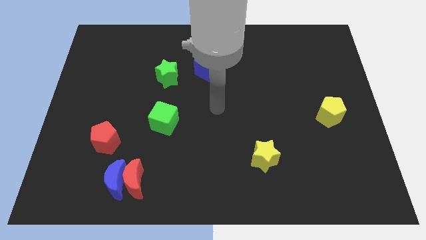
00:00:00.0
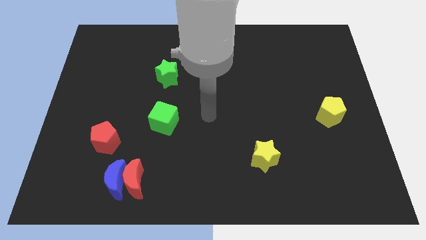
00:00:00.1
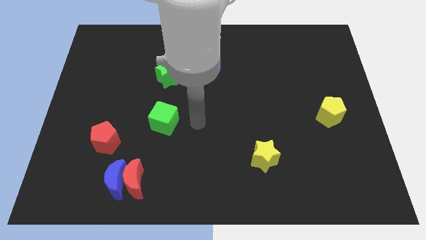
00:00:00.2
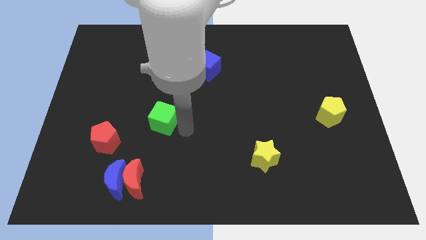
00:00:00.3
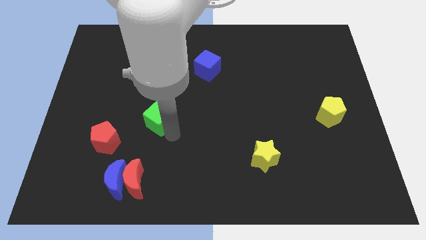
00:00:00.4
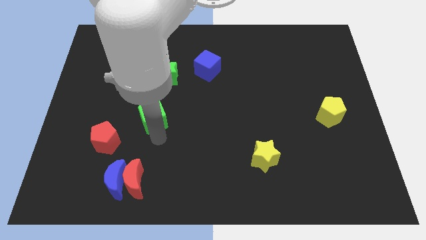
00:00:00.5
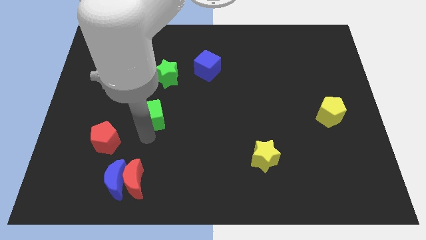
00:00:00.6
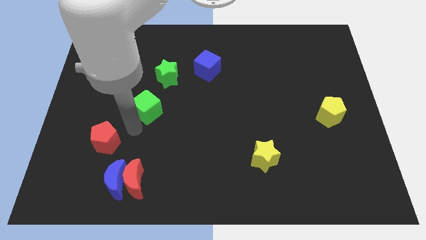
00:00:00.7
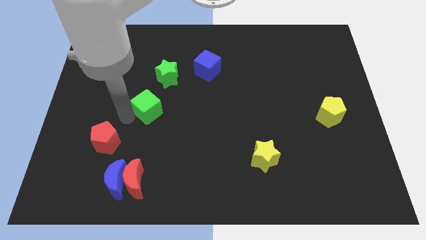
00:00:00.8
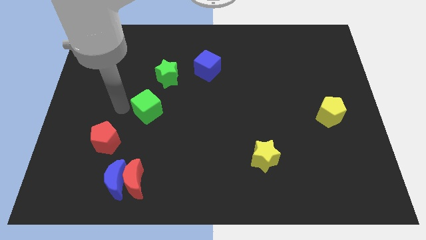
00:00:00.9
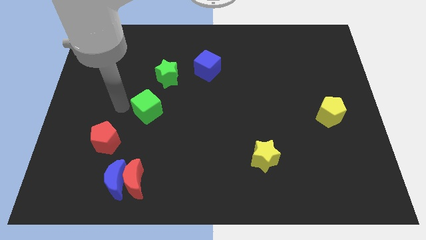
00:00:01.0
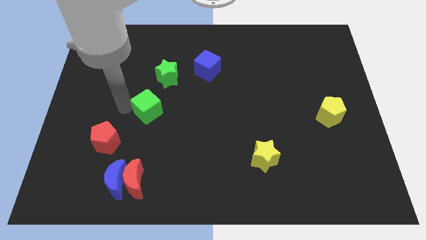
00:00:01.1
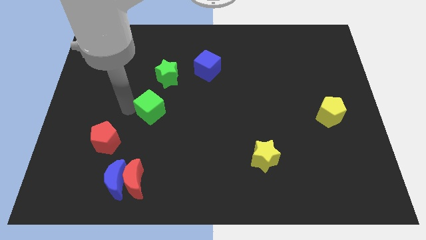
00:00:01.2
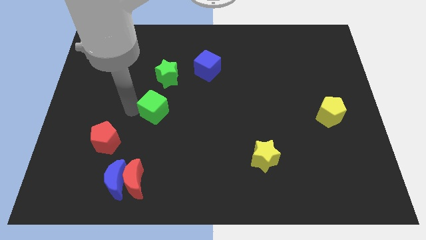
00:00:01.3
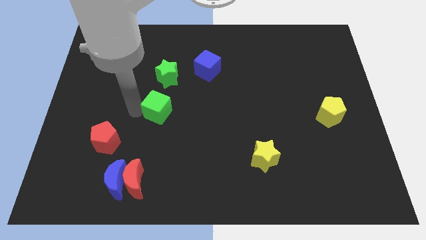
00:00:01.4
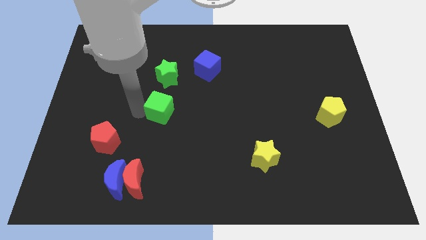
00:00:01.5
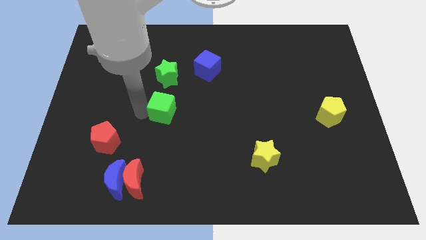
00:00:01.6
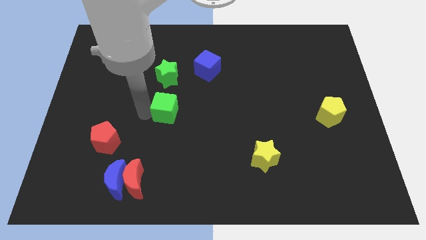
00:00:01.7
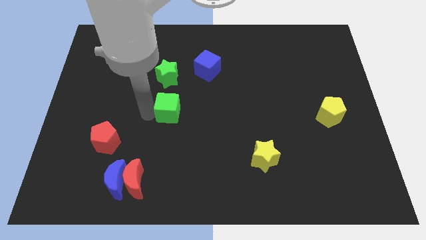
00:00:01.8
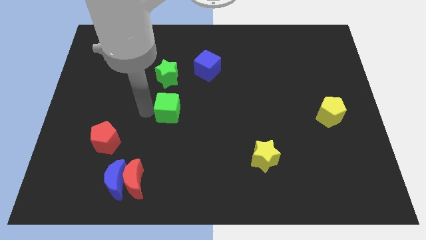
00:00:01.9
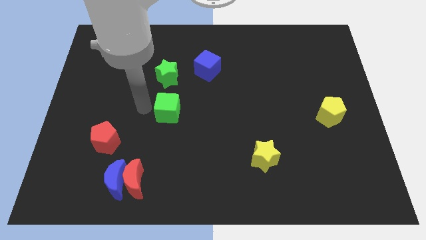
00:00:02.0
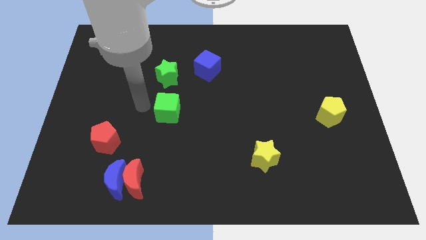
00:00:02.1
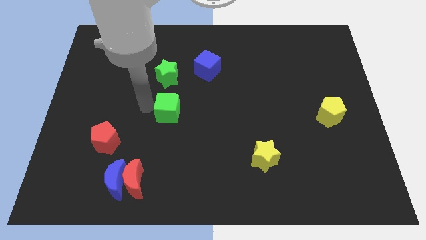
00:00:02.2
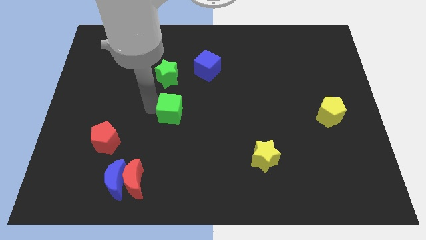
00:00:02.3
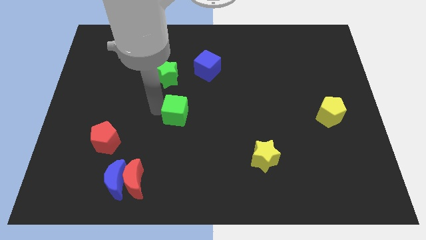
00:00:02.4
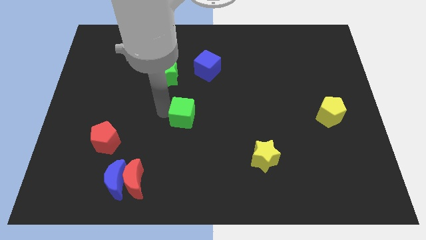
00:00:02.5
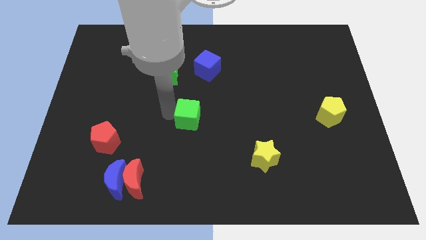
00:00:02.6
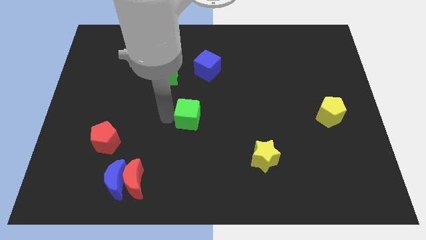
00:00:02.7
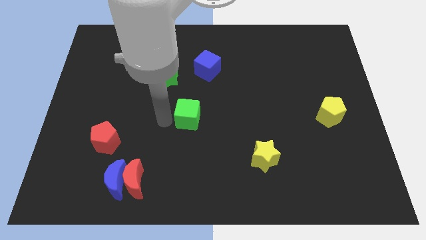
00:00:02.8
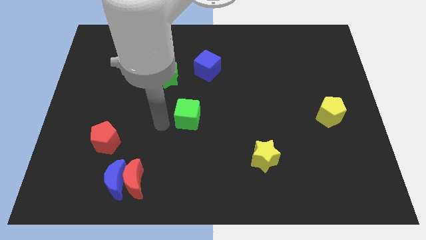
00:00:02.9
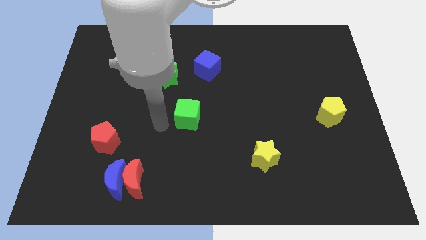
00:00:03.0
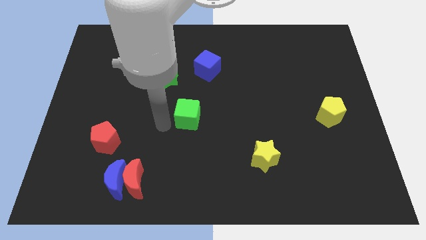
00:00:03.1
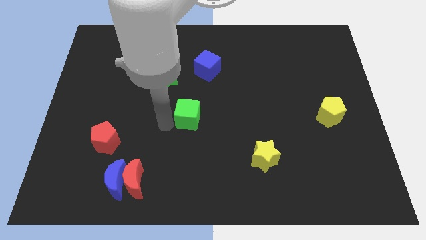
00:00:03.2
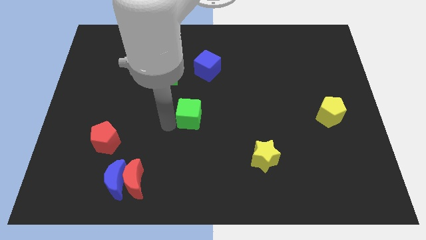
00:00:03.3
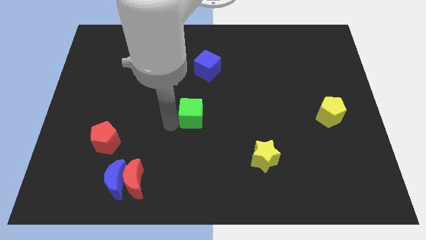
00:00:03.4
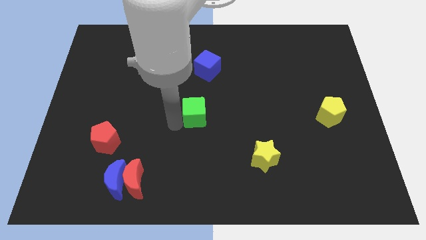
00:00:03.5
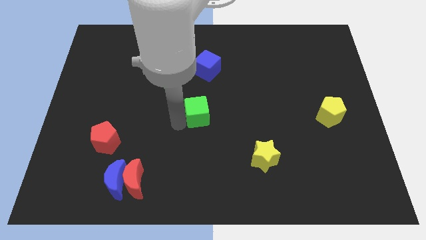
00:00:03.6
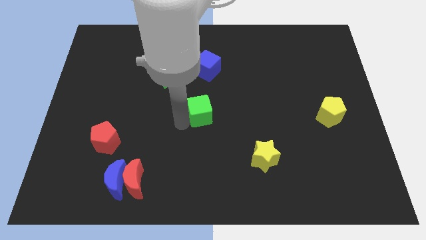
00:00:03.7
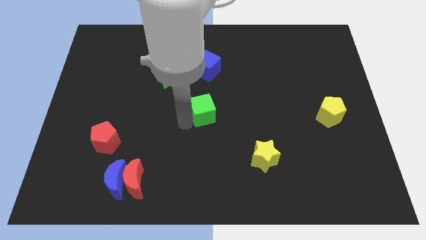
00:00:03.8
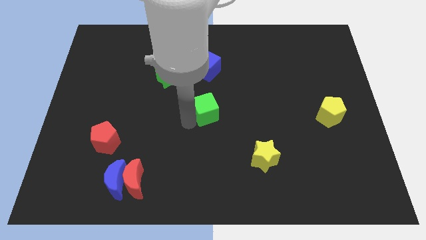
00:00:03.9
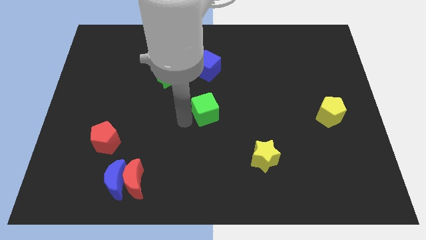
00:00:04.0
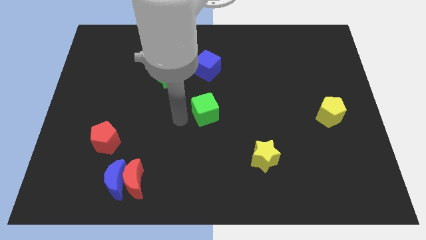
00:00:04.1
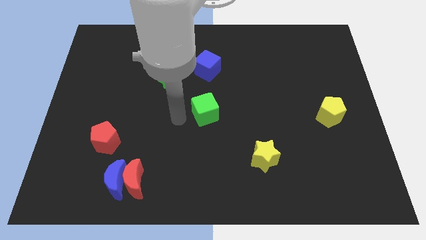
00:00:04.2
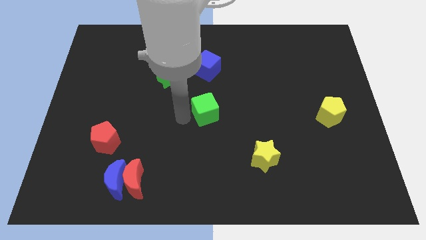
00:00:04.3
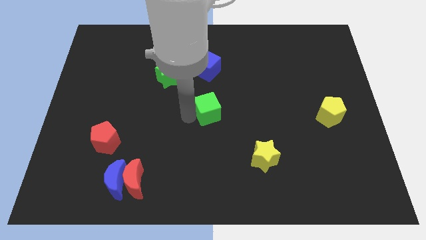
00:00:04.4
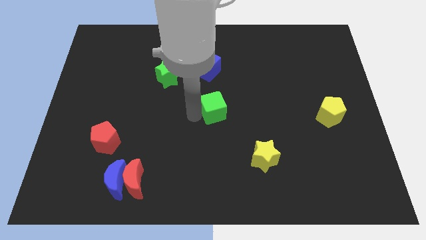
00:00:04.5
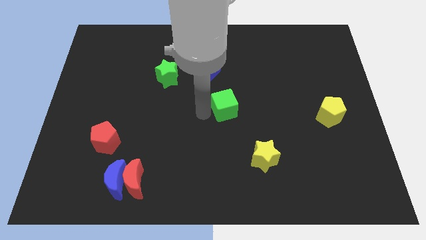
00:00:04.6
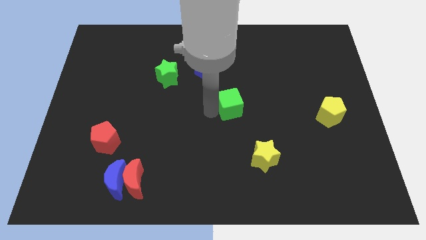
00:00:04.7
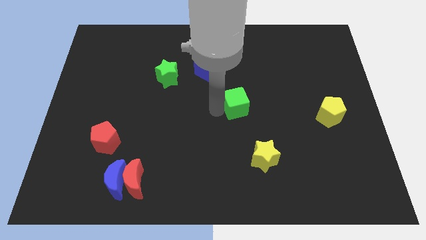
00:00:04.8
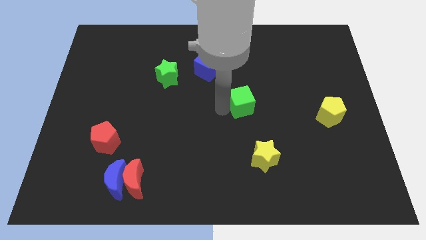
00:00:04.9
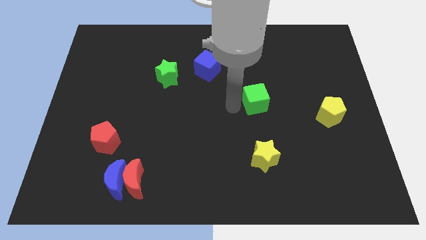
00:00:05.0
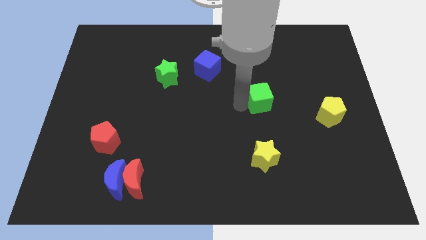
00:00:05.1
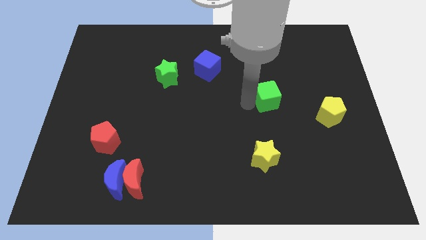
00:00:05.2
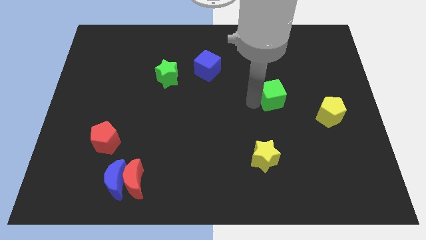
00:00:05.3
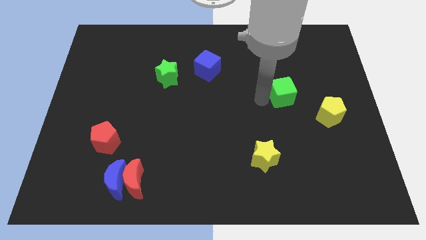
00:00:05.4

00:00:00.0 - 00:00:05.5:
put the green cube to the top left of the yellow pentagon

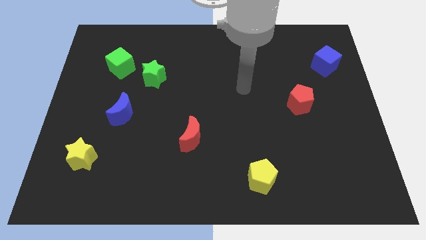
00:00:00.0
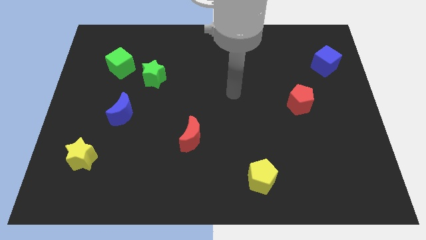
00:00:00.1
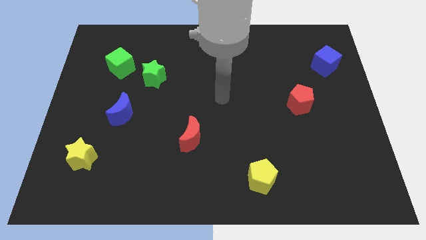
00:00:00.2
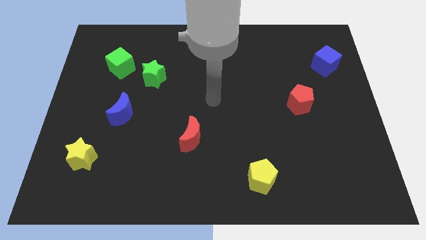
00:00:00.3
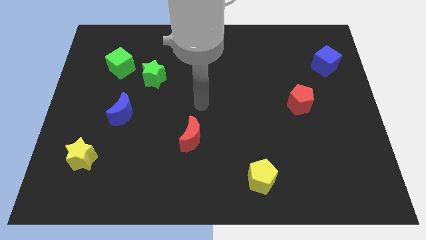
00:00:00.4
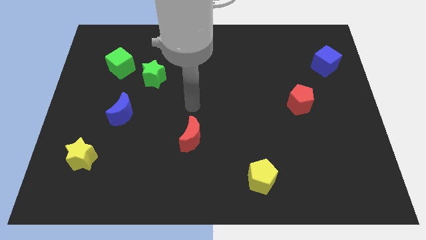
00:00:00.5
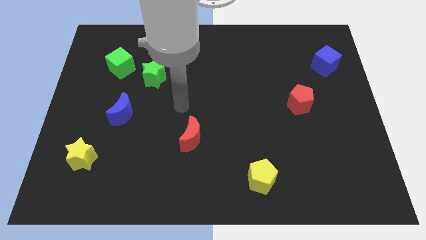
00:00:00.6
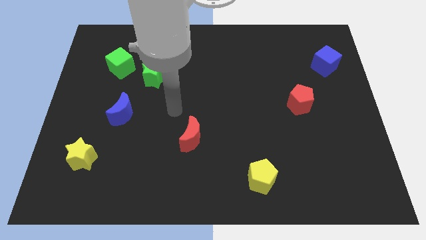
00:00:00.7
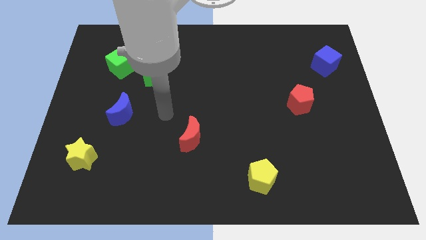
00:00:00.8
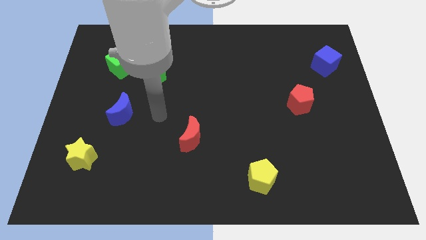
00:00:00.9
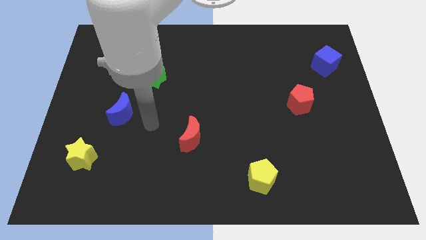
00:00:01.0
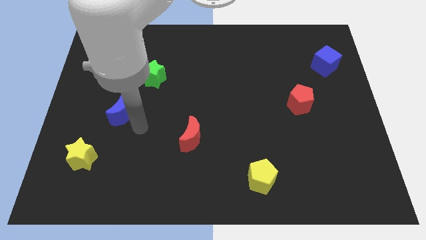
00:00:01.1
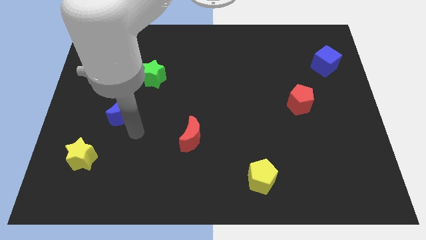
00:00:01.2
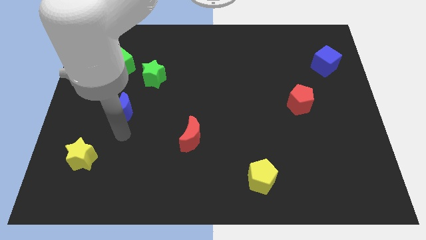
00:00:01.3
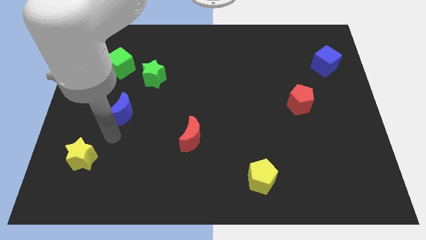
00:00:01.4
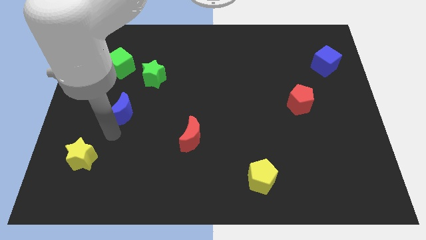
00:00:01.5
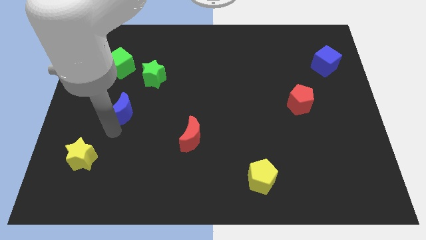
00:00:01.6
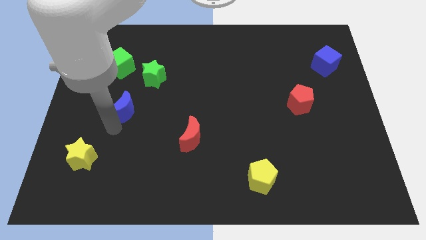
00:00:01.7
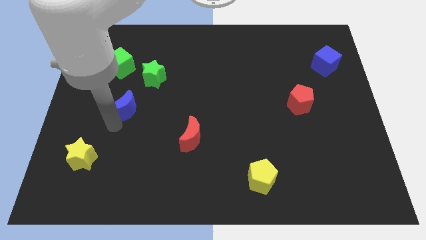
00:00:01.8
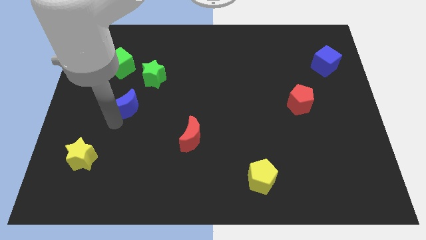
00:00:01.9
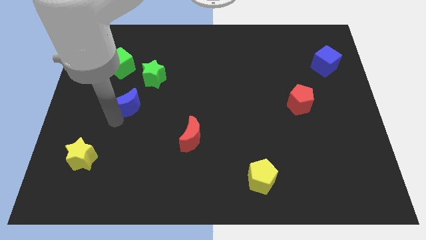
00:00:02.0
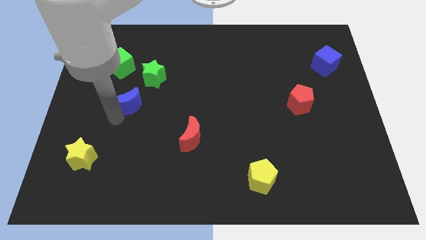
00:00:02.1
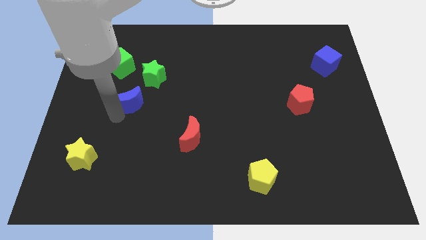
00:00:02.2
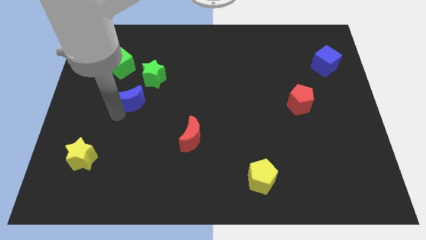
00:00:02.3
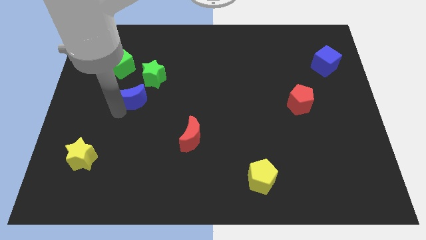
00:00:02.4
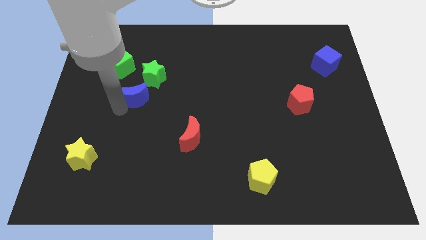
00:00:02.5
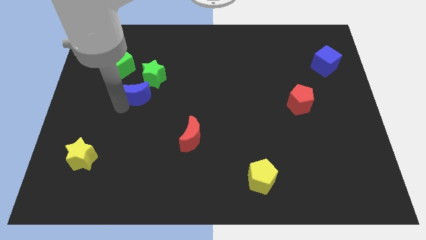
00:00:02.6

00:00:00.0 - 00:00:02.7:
put the blue moon diagonally down and to the right of the green cube

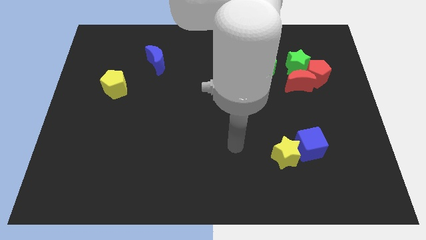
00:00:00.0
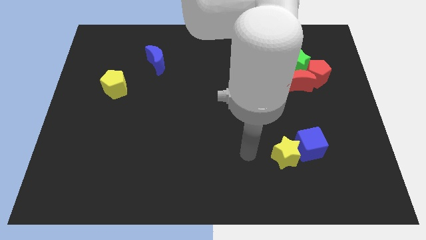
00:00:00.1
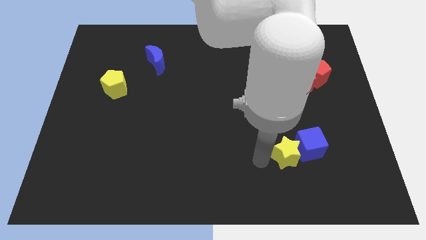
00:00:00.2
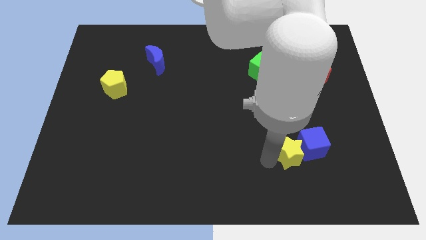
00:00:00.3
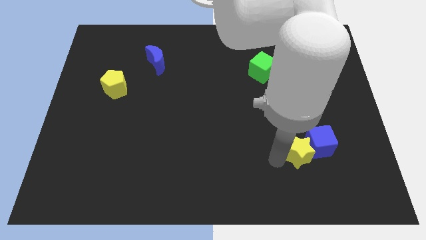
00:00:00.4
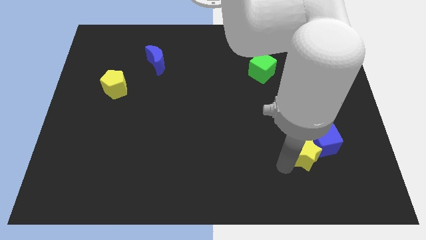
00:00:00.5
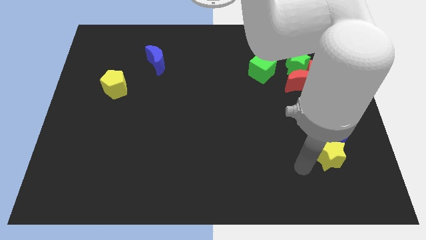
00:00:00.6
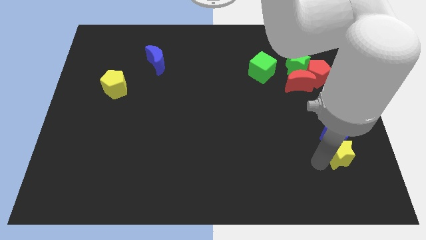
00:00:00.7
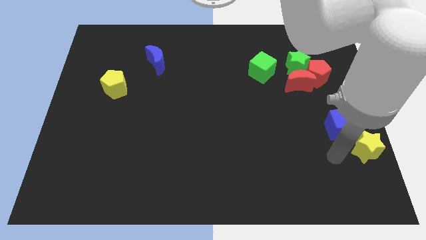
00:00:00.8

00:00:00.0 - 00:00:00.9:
put the blue cube to the bottom side of the red pentagon
